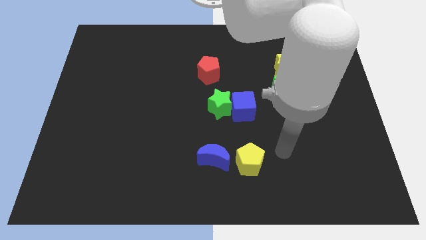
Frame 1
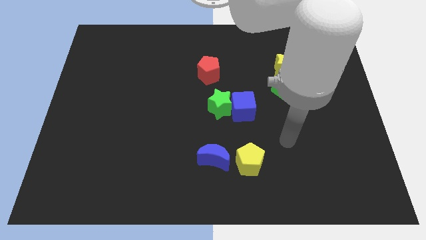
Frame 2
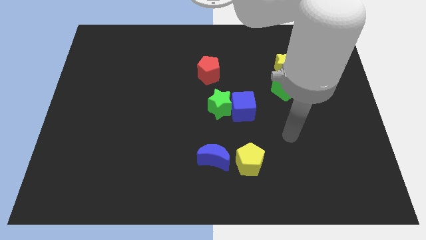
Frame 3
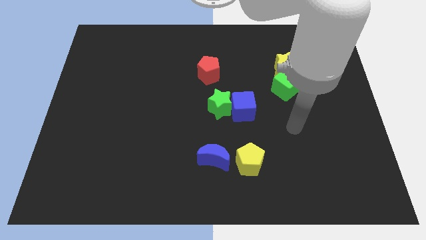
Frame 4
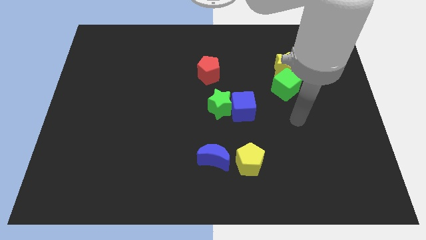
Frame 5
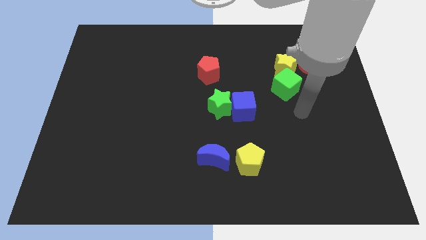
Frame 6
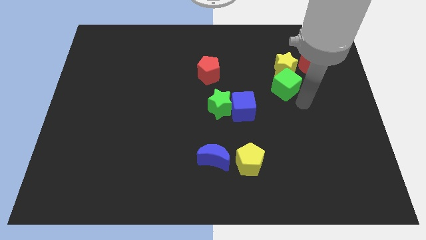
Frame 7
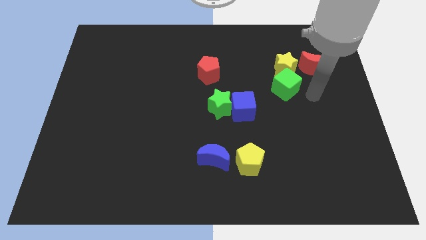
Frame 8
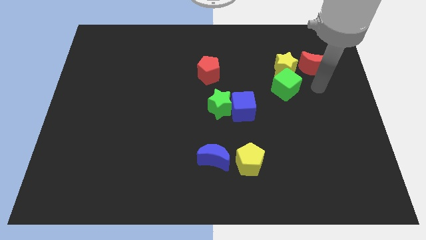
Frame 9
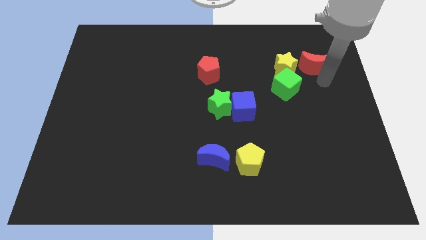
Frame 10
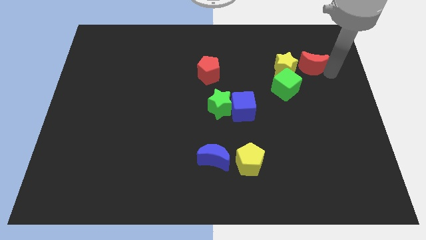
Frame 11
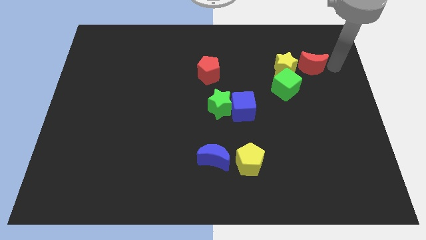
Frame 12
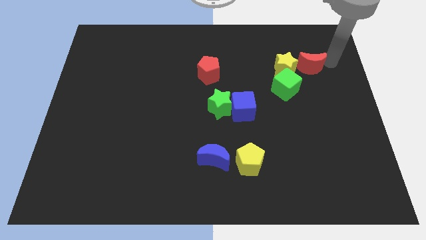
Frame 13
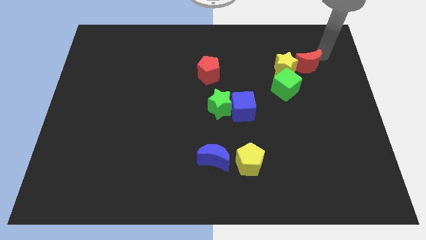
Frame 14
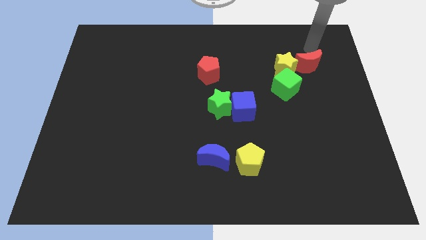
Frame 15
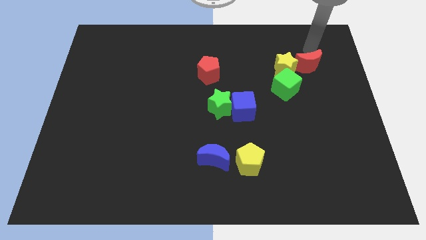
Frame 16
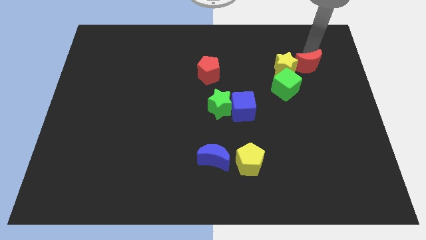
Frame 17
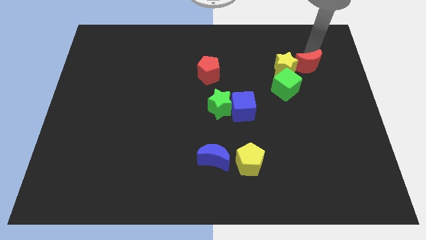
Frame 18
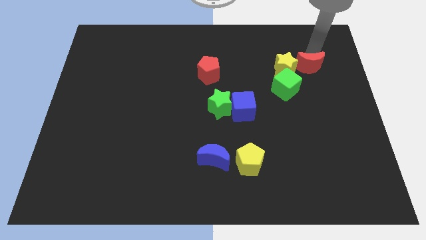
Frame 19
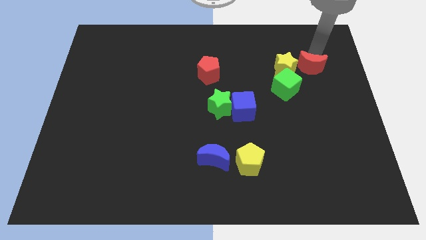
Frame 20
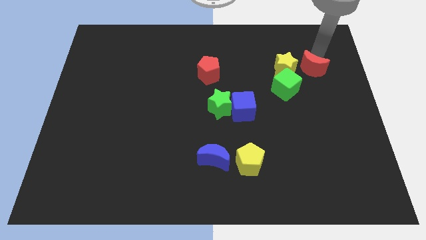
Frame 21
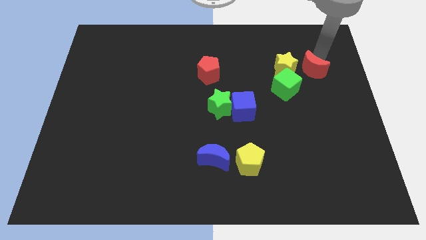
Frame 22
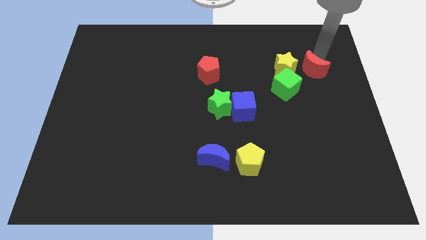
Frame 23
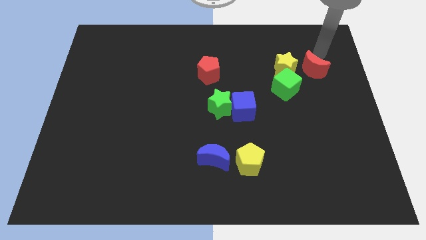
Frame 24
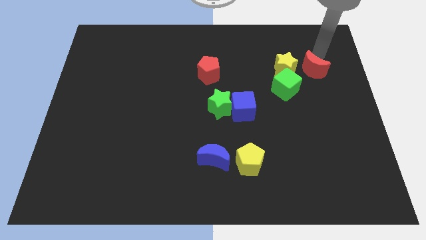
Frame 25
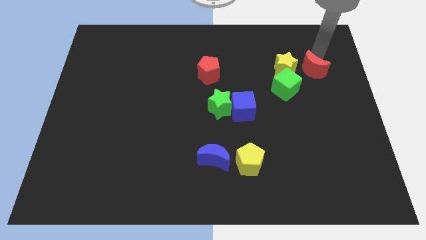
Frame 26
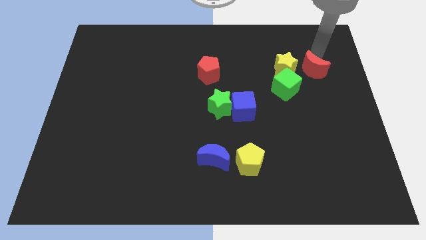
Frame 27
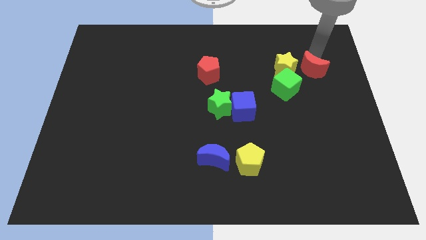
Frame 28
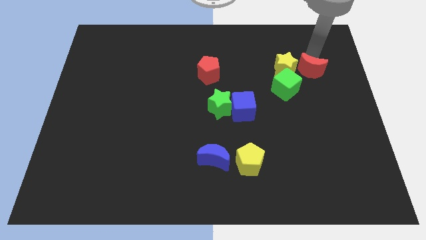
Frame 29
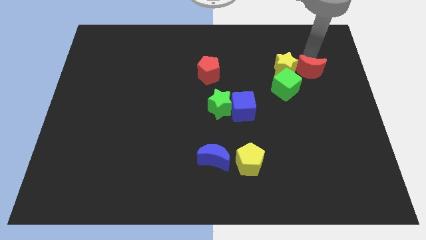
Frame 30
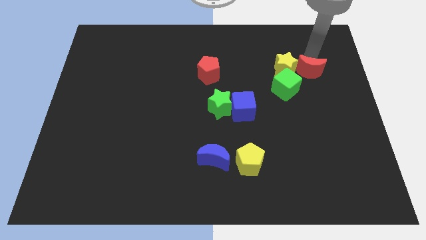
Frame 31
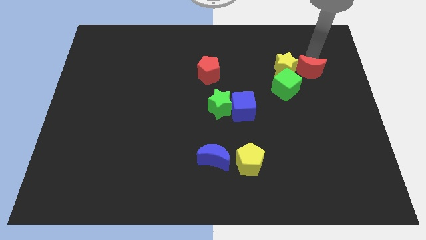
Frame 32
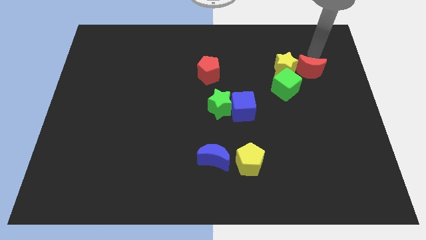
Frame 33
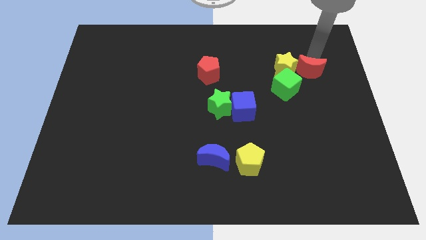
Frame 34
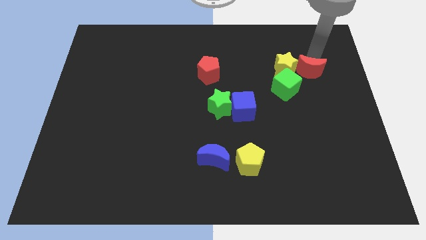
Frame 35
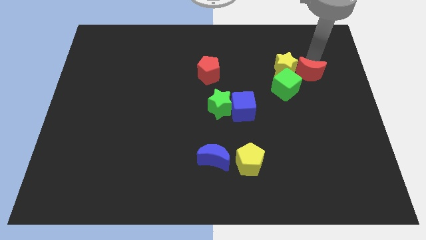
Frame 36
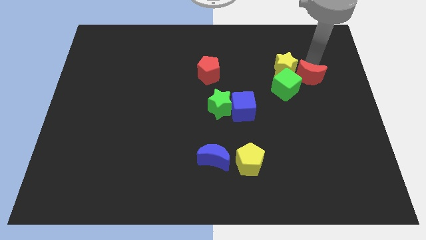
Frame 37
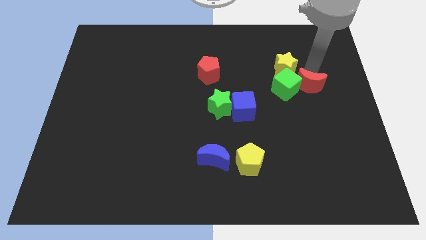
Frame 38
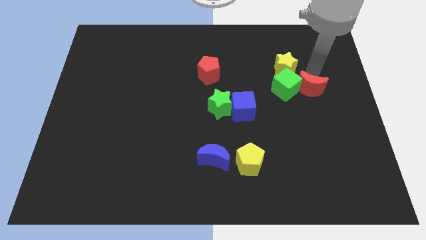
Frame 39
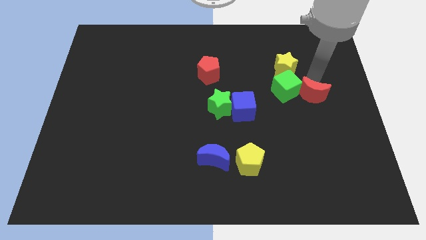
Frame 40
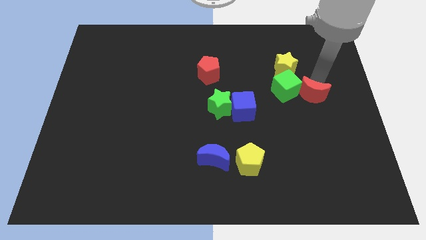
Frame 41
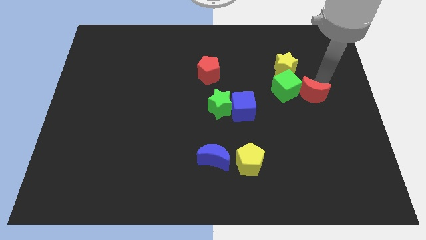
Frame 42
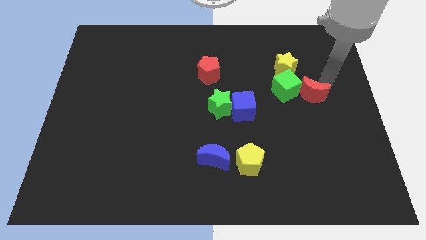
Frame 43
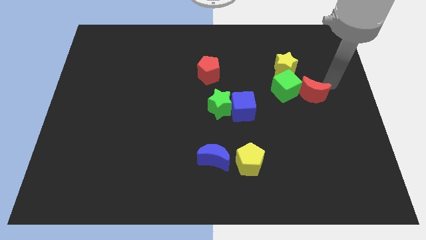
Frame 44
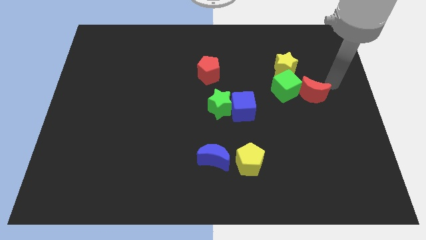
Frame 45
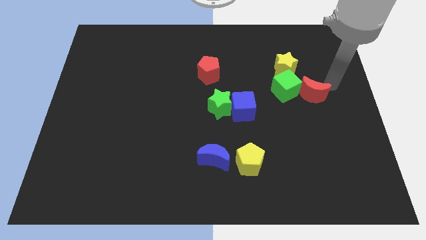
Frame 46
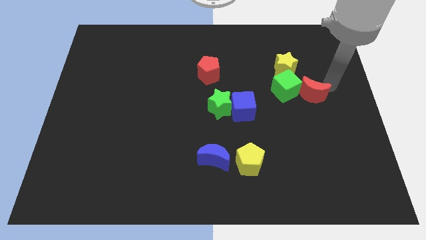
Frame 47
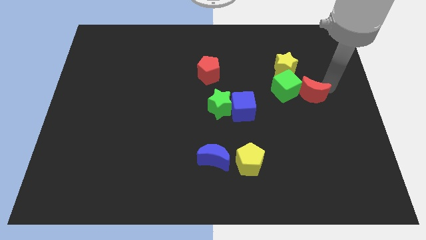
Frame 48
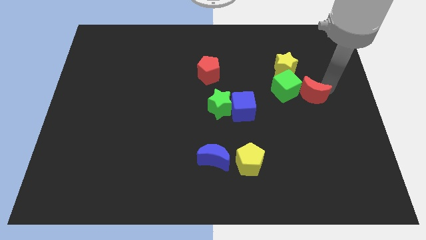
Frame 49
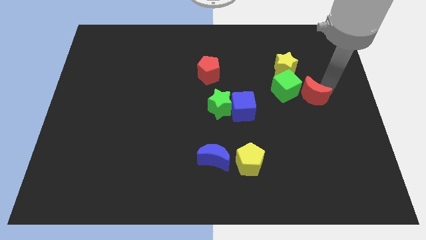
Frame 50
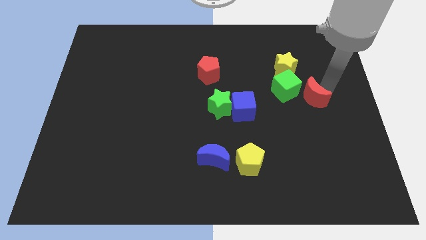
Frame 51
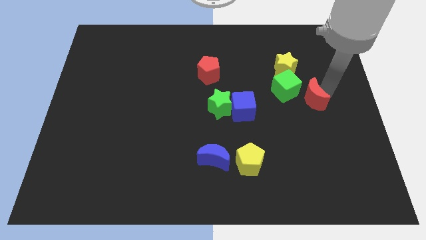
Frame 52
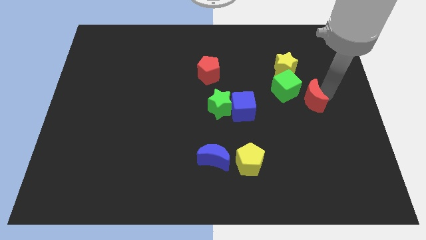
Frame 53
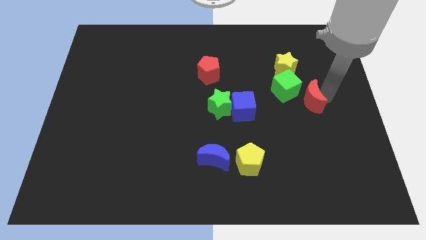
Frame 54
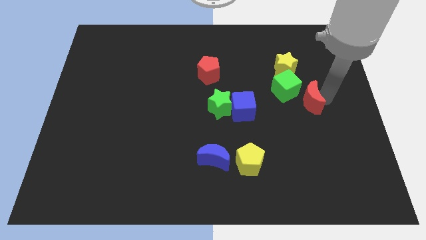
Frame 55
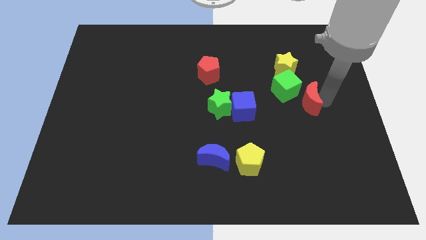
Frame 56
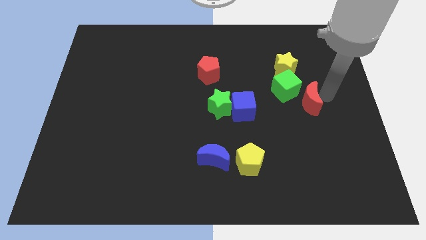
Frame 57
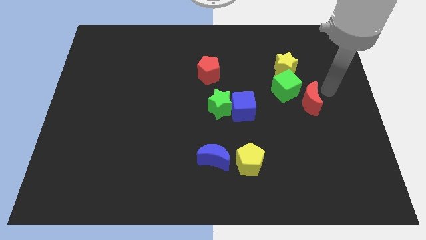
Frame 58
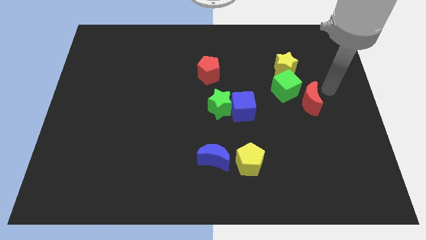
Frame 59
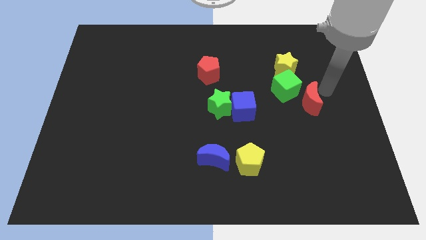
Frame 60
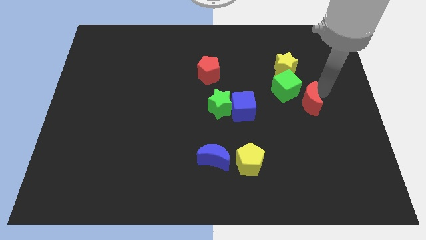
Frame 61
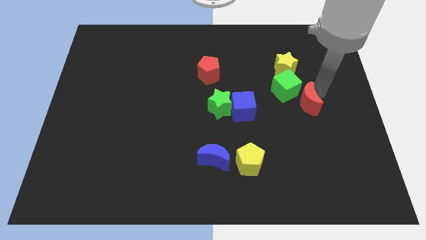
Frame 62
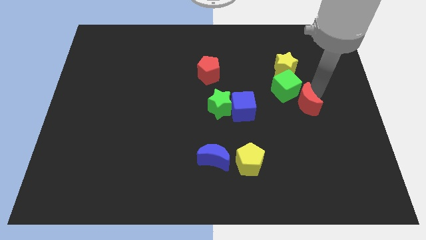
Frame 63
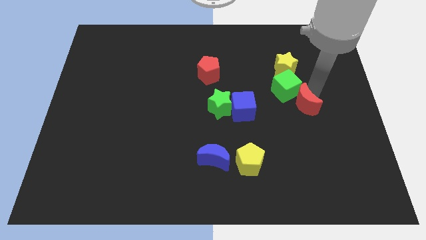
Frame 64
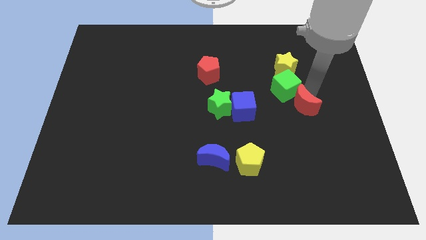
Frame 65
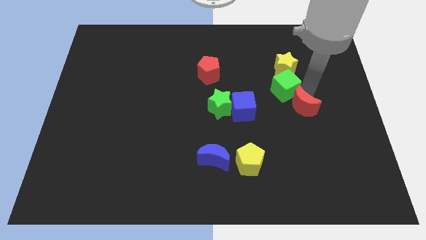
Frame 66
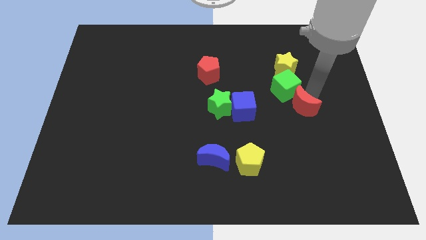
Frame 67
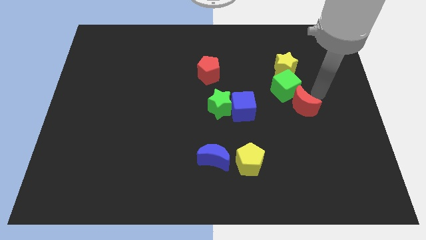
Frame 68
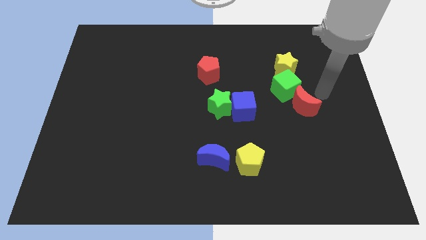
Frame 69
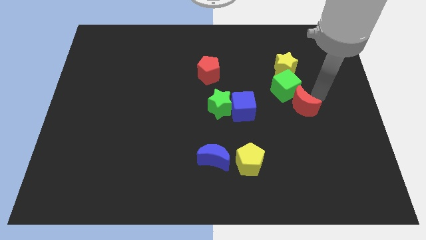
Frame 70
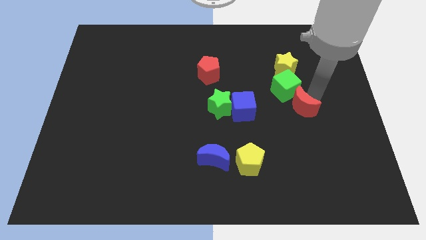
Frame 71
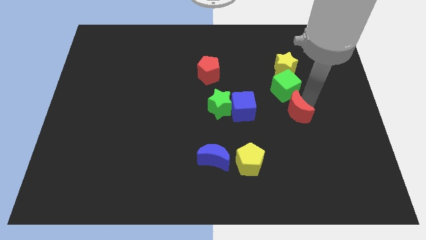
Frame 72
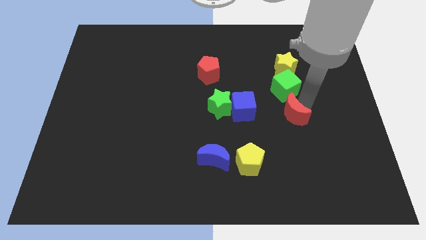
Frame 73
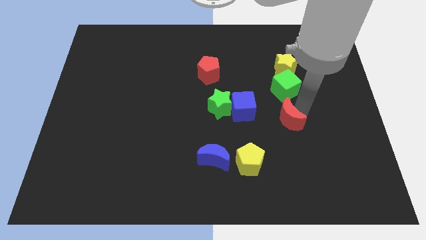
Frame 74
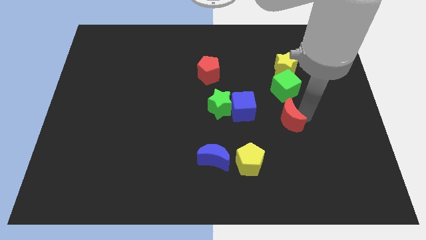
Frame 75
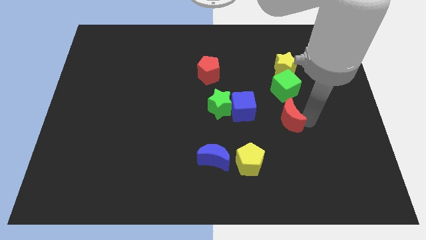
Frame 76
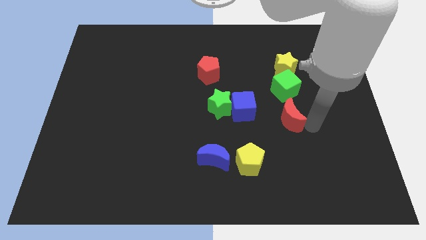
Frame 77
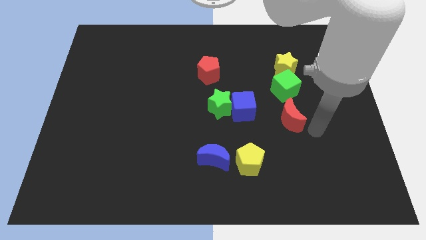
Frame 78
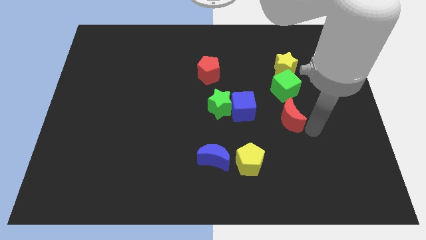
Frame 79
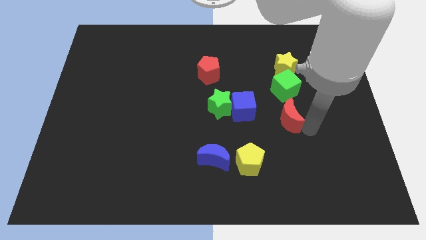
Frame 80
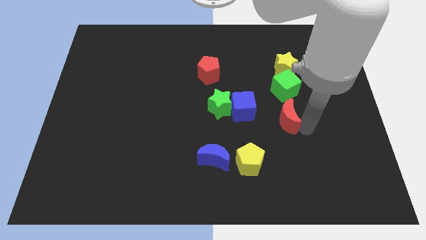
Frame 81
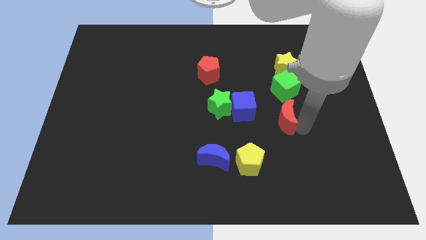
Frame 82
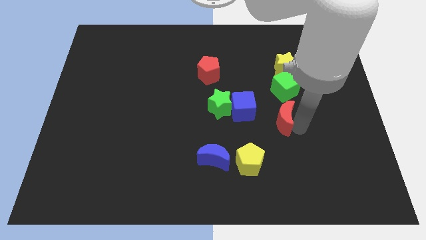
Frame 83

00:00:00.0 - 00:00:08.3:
put the red moon to the right of the green star
